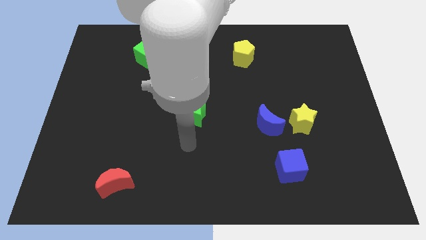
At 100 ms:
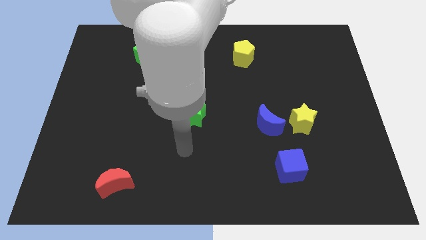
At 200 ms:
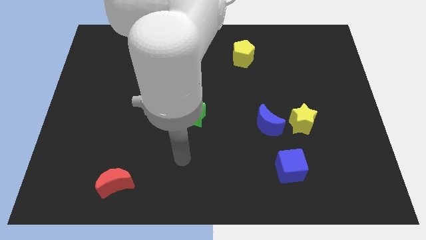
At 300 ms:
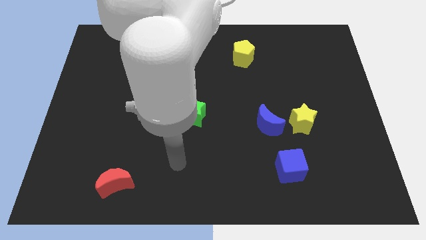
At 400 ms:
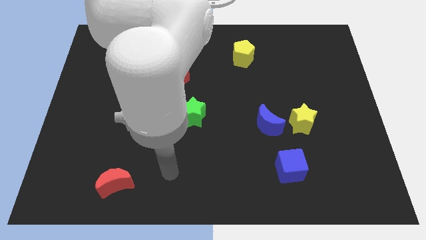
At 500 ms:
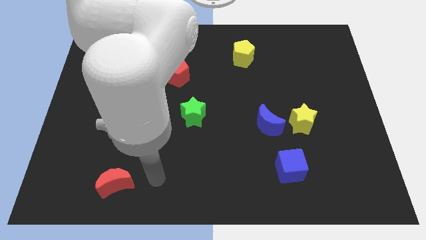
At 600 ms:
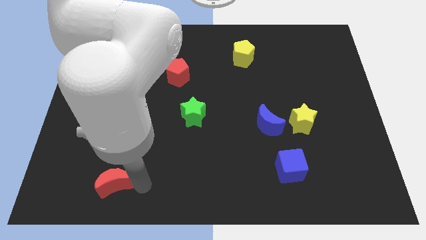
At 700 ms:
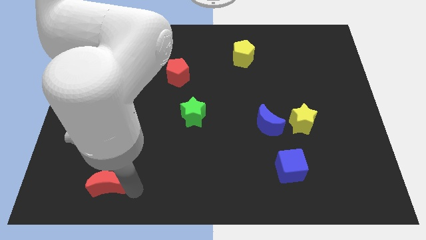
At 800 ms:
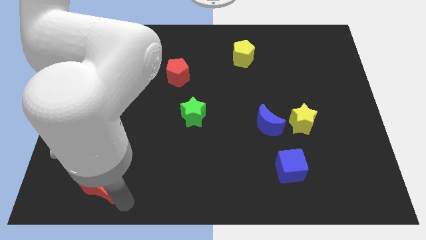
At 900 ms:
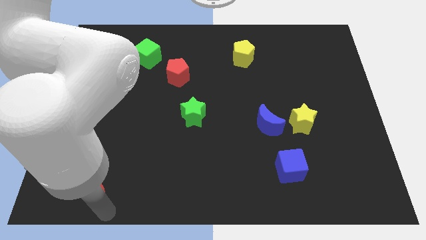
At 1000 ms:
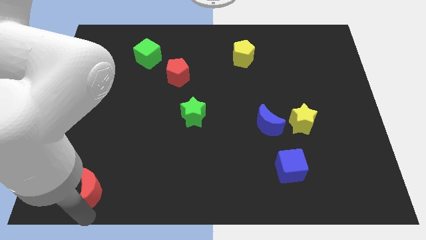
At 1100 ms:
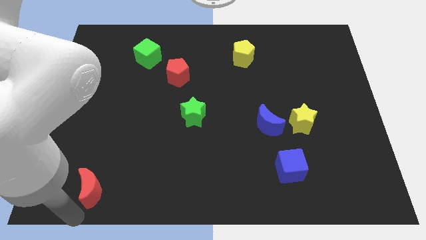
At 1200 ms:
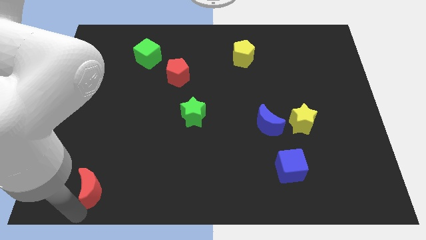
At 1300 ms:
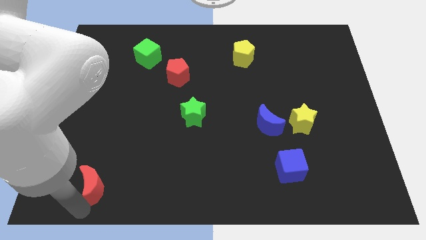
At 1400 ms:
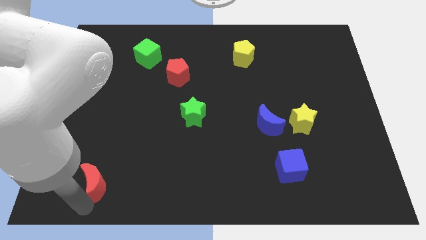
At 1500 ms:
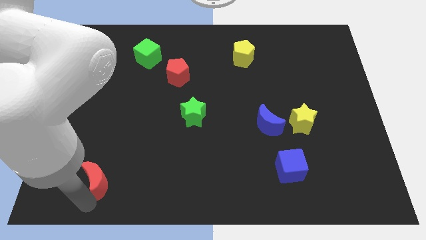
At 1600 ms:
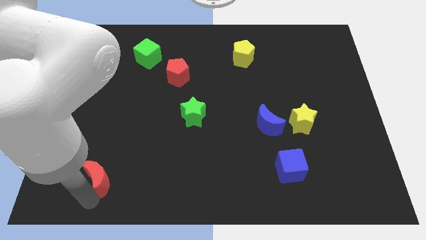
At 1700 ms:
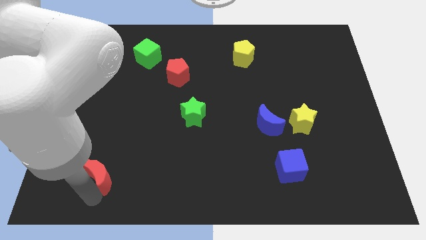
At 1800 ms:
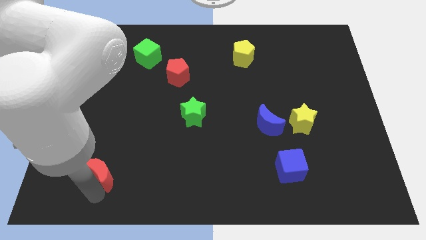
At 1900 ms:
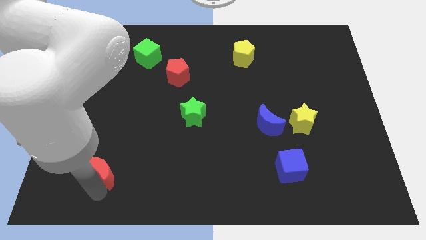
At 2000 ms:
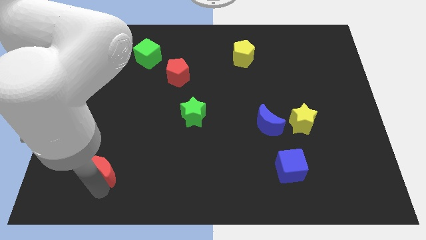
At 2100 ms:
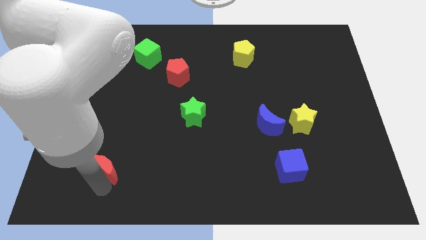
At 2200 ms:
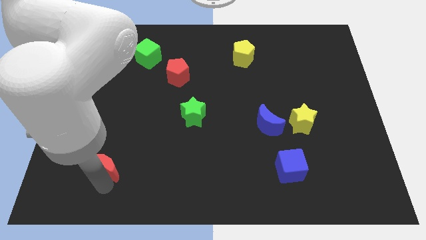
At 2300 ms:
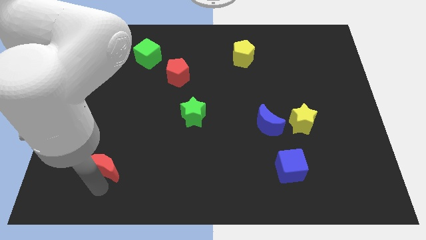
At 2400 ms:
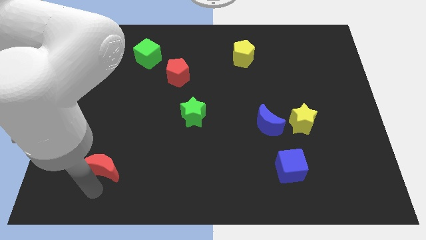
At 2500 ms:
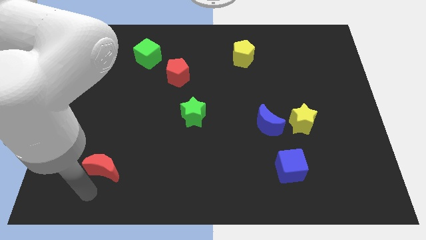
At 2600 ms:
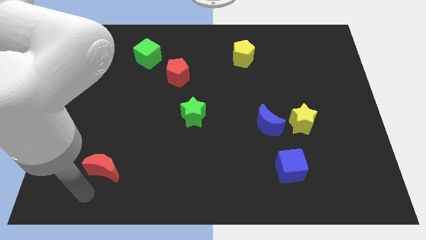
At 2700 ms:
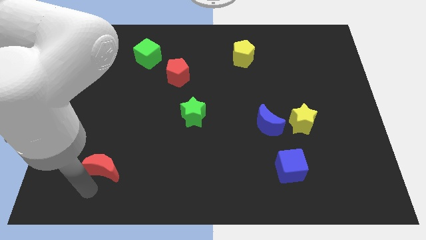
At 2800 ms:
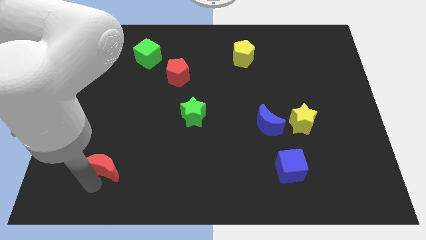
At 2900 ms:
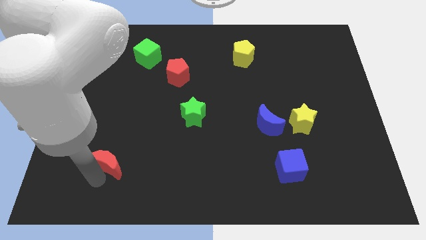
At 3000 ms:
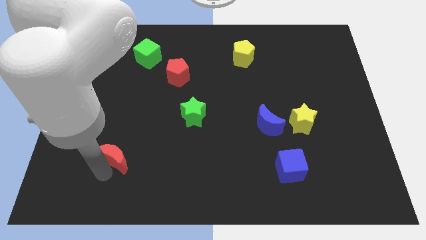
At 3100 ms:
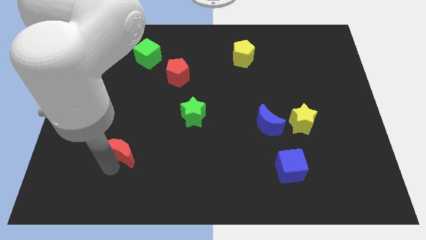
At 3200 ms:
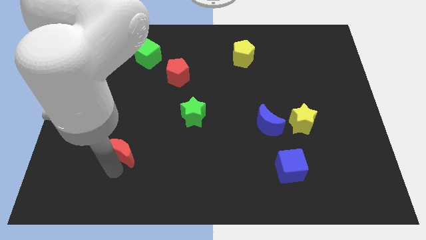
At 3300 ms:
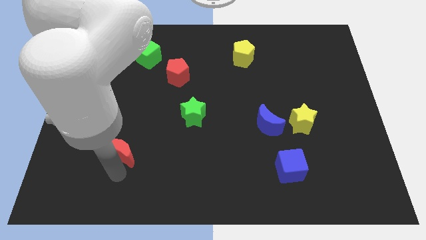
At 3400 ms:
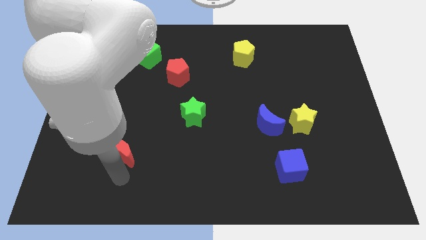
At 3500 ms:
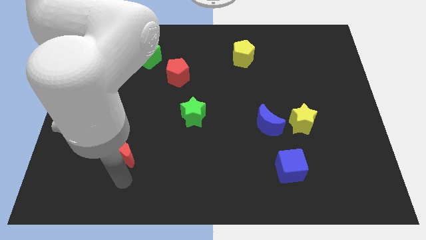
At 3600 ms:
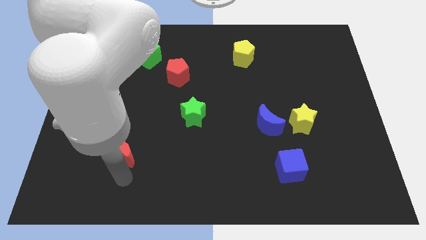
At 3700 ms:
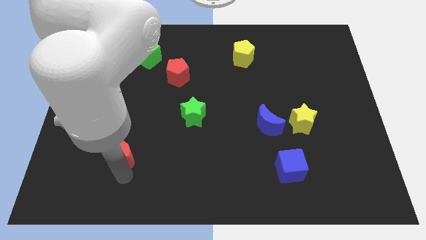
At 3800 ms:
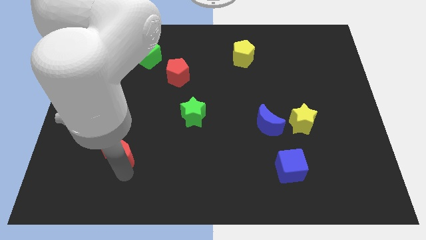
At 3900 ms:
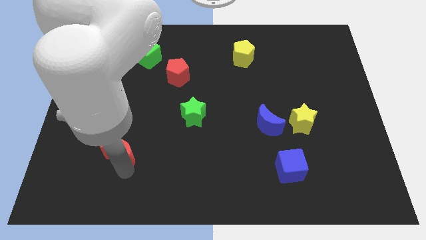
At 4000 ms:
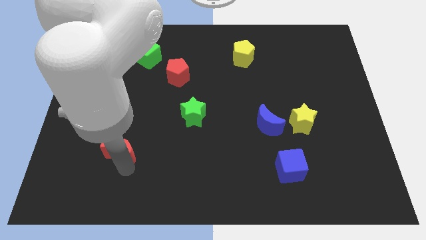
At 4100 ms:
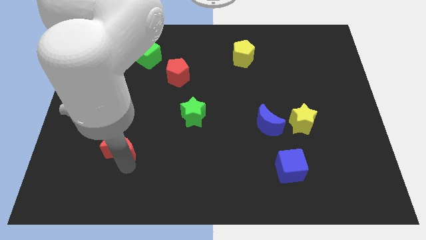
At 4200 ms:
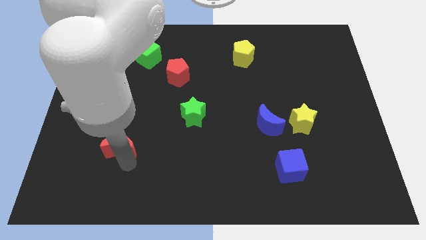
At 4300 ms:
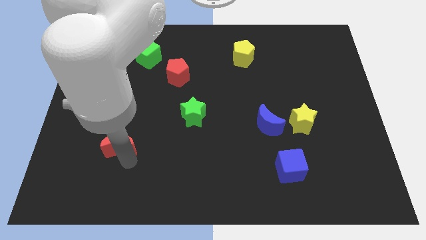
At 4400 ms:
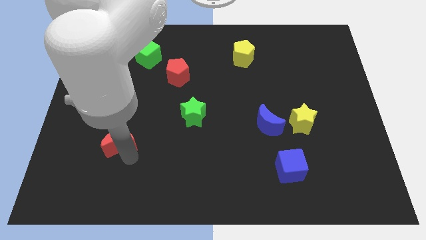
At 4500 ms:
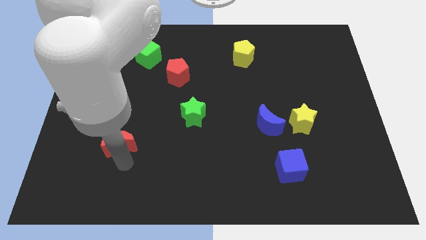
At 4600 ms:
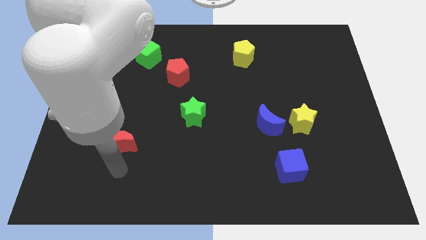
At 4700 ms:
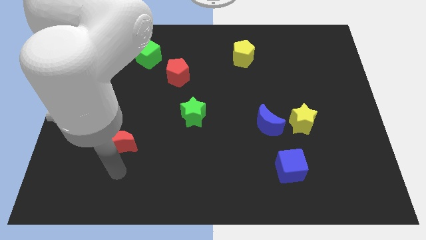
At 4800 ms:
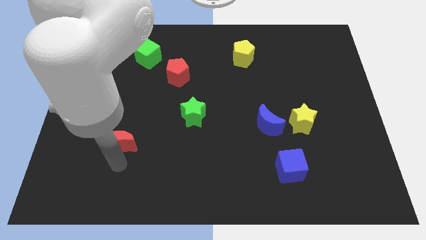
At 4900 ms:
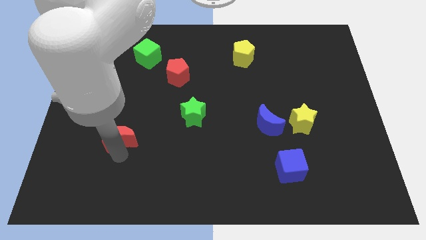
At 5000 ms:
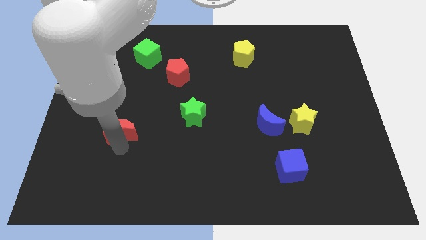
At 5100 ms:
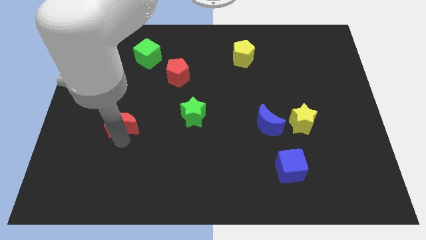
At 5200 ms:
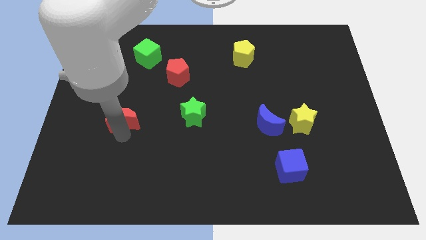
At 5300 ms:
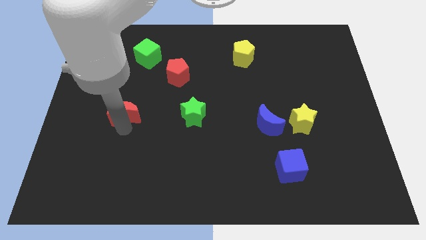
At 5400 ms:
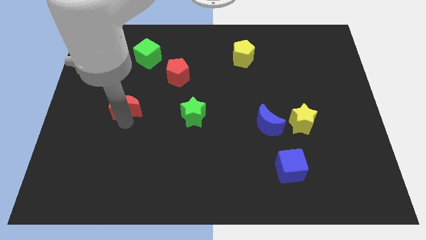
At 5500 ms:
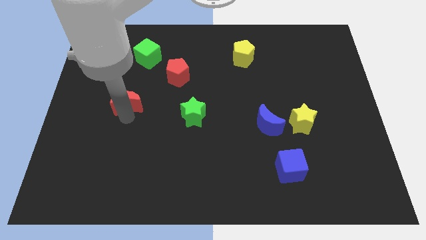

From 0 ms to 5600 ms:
move the red moon up

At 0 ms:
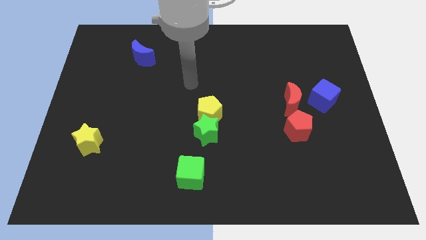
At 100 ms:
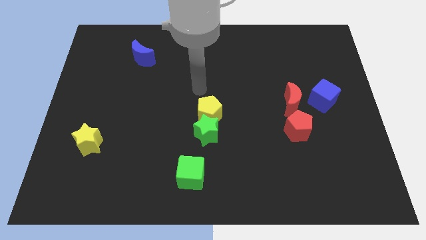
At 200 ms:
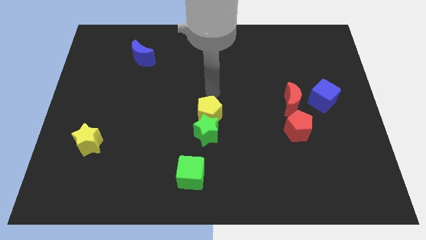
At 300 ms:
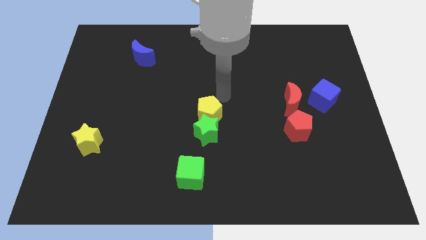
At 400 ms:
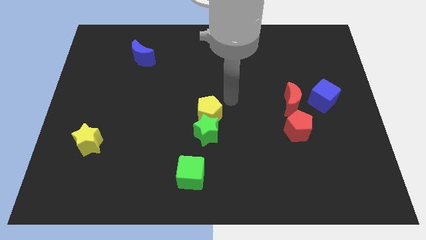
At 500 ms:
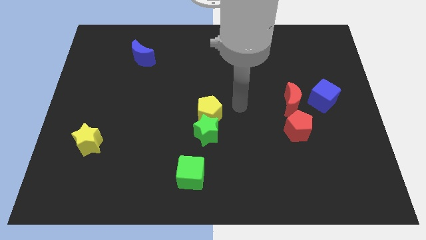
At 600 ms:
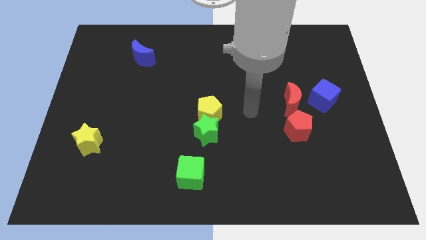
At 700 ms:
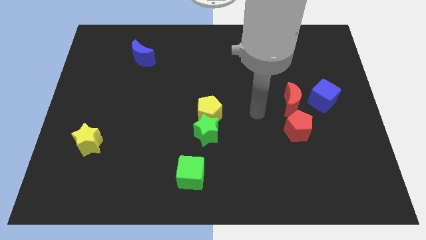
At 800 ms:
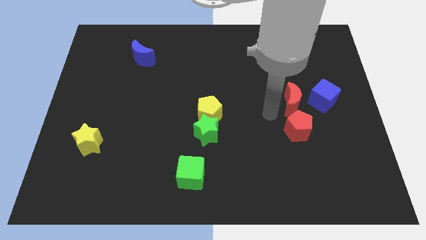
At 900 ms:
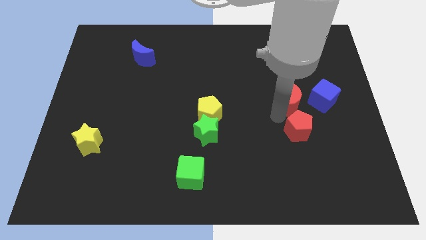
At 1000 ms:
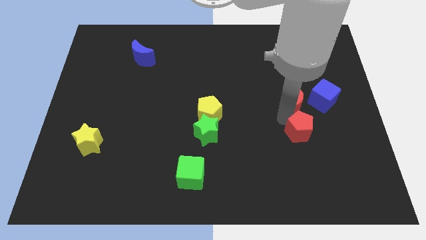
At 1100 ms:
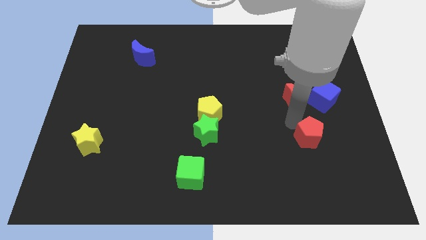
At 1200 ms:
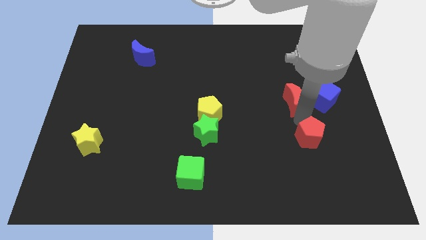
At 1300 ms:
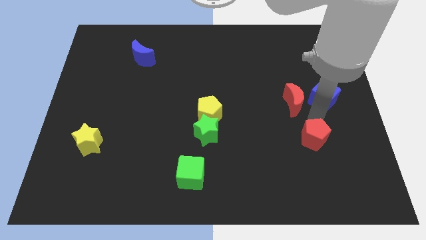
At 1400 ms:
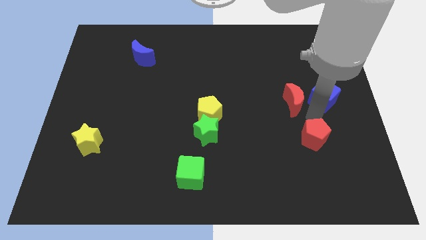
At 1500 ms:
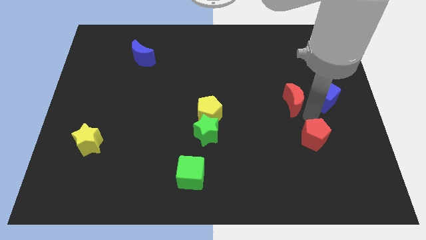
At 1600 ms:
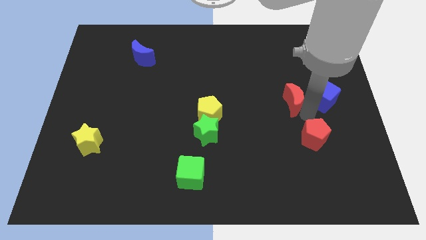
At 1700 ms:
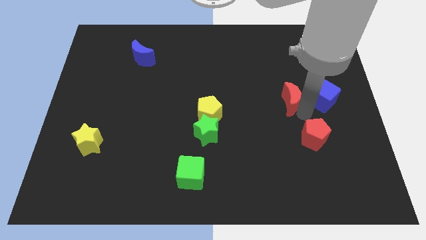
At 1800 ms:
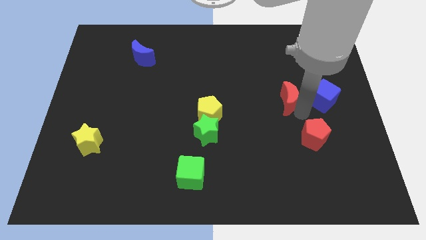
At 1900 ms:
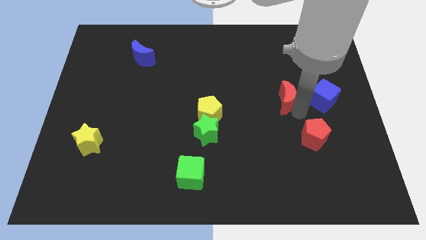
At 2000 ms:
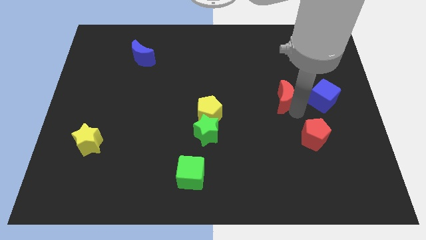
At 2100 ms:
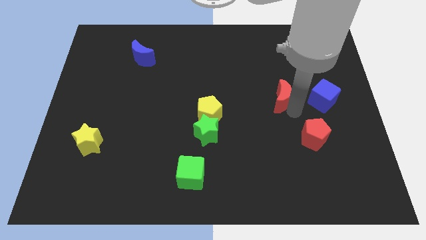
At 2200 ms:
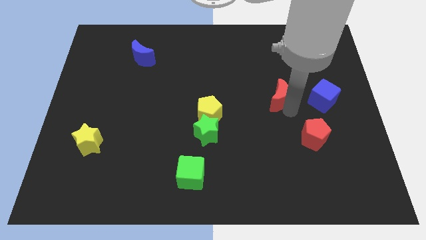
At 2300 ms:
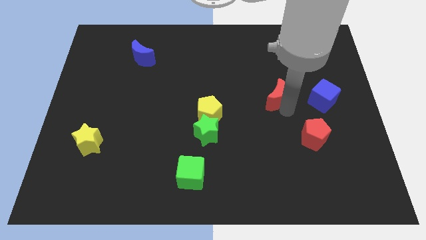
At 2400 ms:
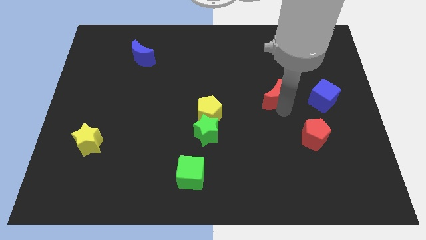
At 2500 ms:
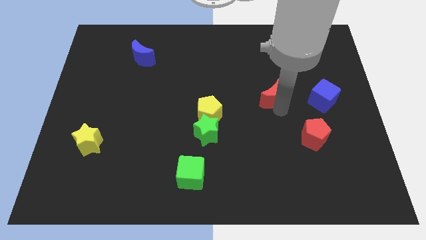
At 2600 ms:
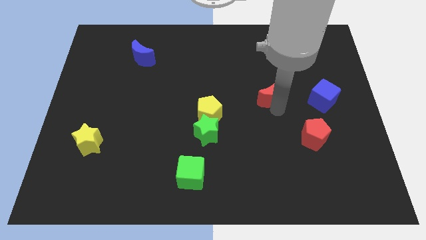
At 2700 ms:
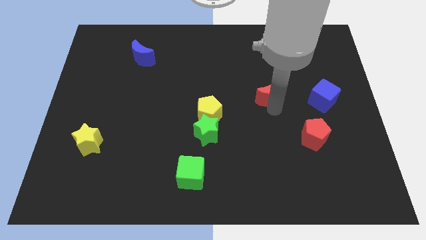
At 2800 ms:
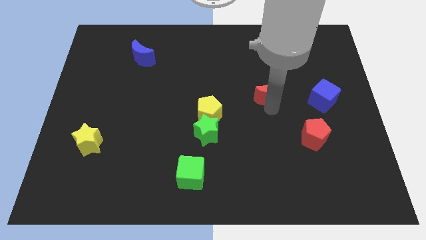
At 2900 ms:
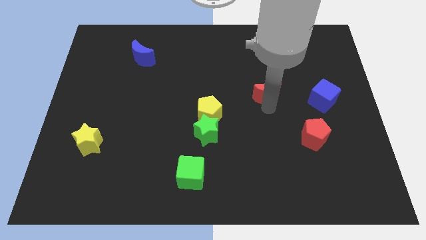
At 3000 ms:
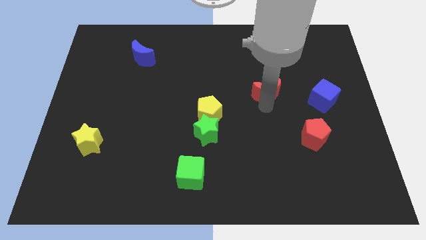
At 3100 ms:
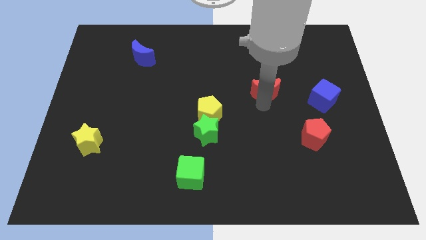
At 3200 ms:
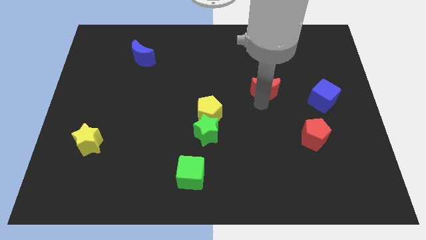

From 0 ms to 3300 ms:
move the red moon slightly diagonally up and left
